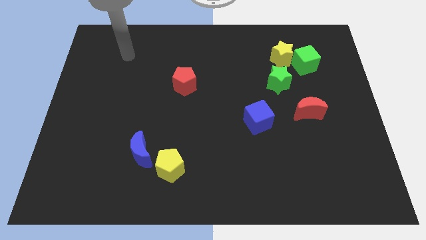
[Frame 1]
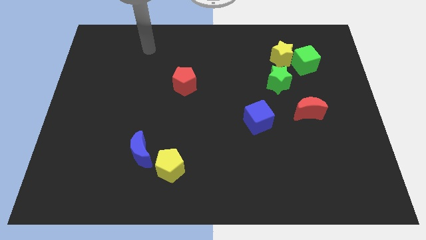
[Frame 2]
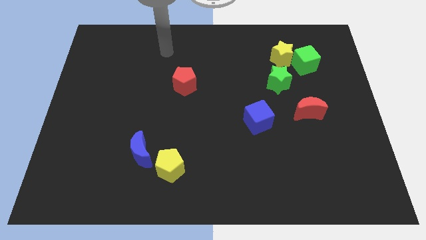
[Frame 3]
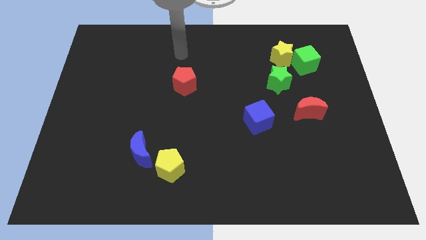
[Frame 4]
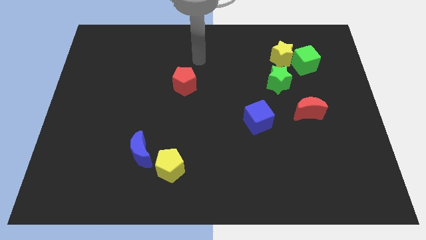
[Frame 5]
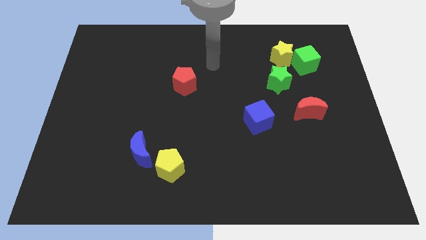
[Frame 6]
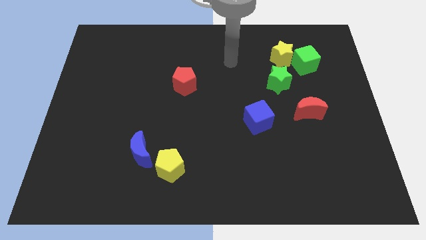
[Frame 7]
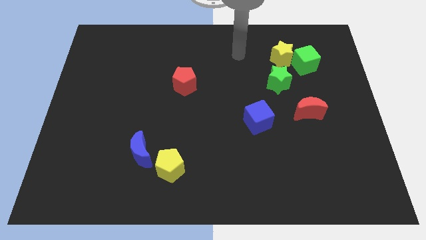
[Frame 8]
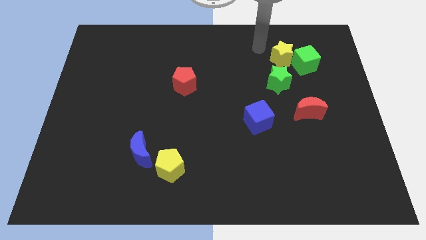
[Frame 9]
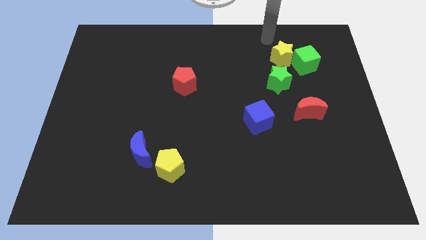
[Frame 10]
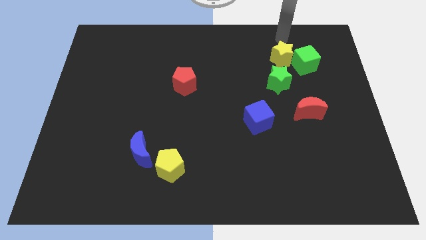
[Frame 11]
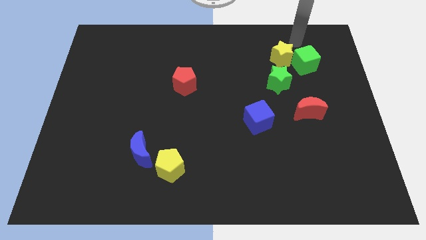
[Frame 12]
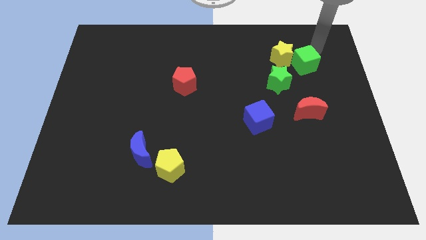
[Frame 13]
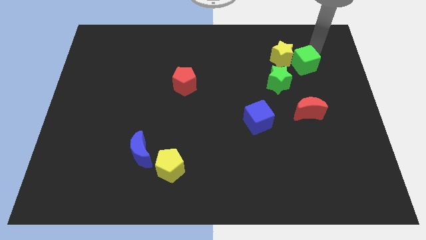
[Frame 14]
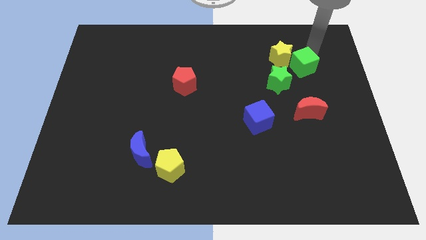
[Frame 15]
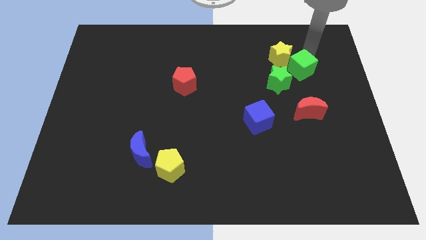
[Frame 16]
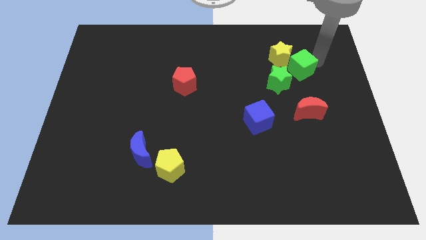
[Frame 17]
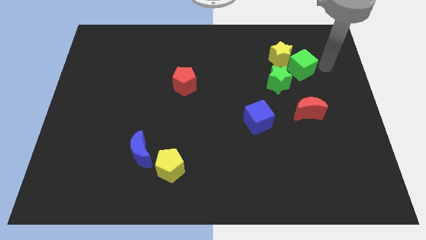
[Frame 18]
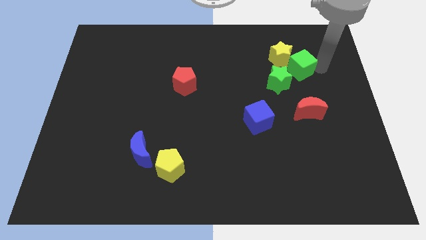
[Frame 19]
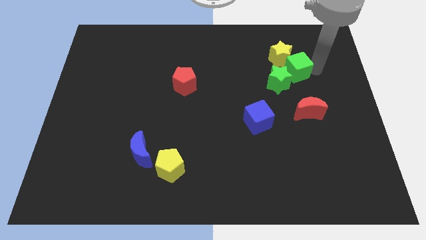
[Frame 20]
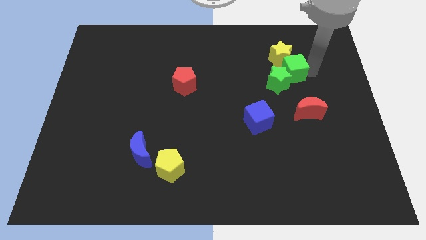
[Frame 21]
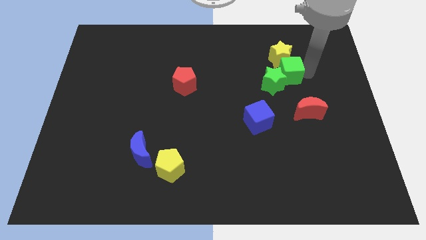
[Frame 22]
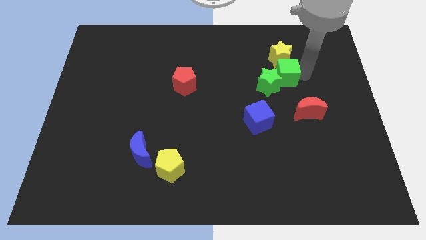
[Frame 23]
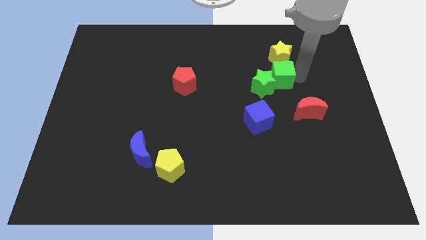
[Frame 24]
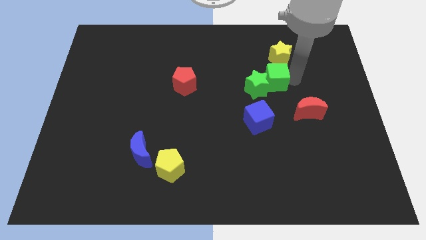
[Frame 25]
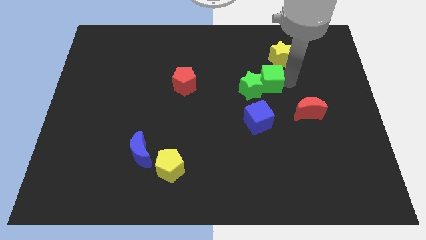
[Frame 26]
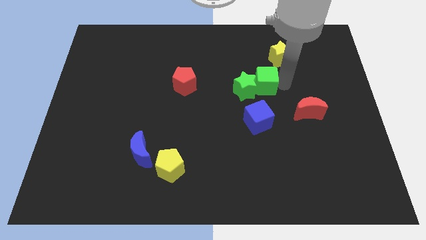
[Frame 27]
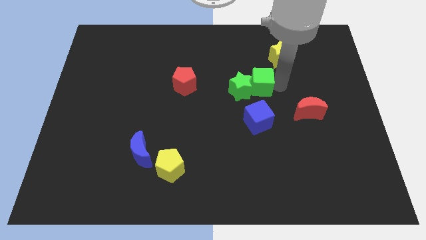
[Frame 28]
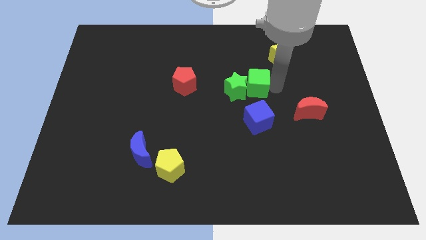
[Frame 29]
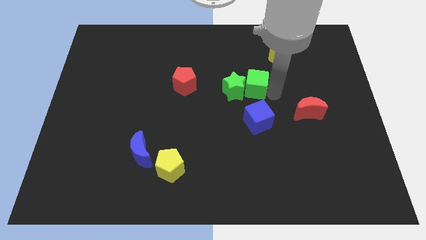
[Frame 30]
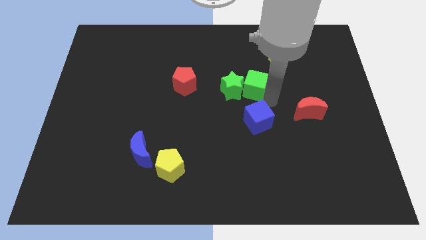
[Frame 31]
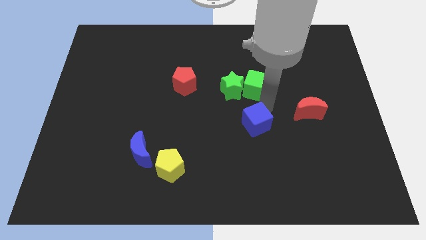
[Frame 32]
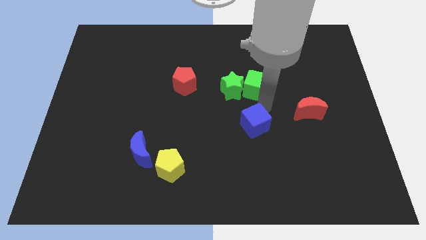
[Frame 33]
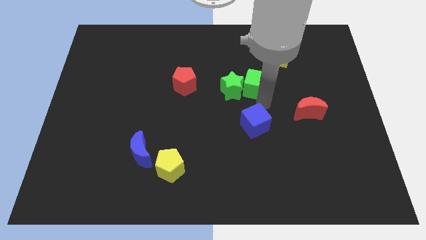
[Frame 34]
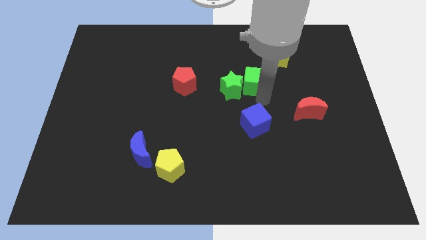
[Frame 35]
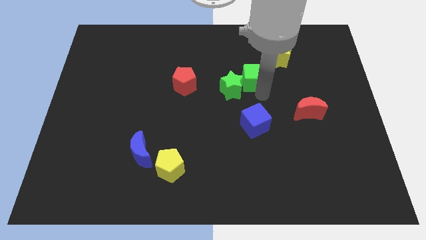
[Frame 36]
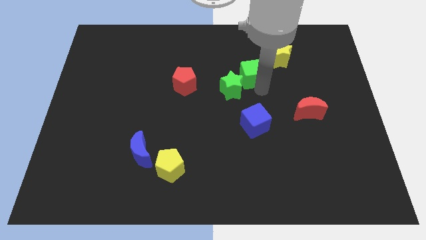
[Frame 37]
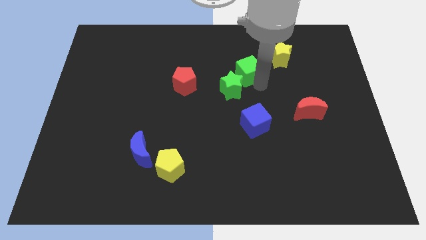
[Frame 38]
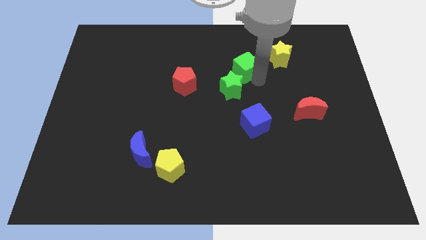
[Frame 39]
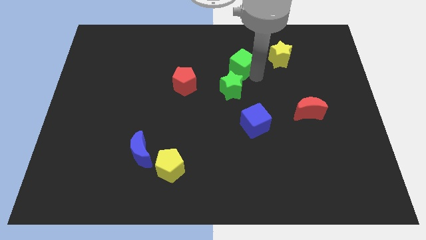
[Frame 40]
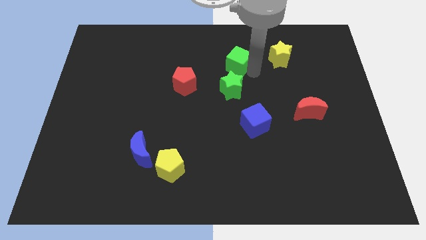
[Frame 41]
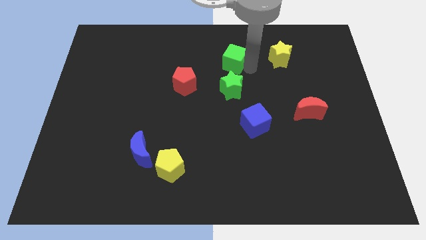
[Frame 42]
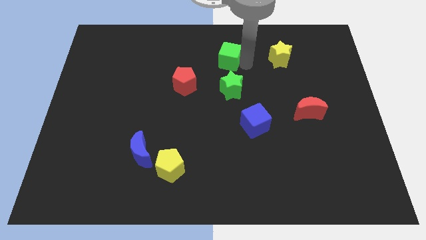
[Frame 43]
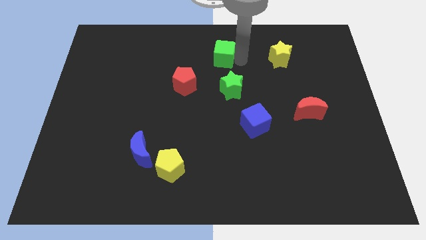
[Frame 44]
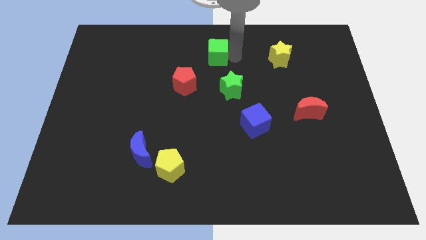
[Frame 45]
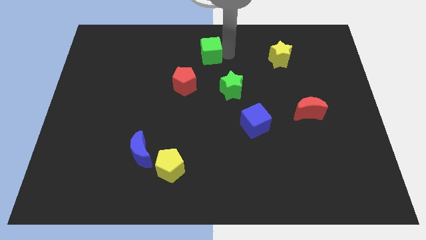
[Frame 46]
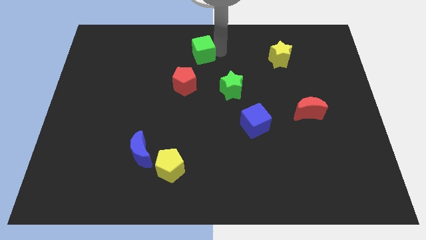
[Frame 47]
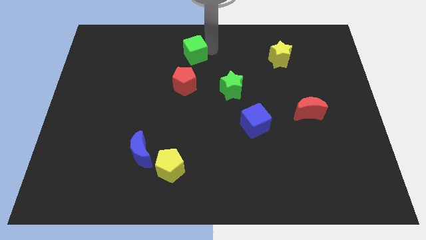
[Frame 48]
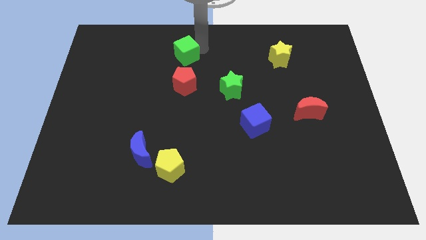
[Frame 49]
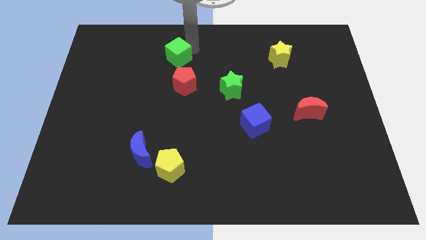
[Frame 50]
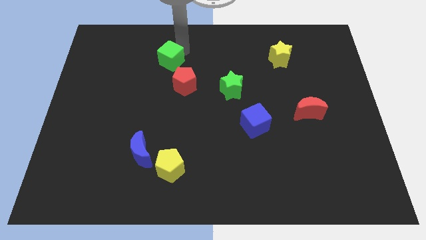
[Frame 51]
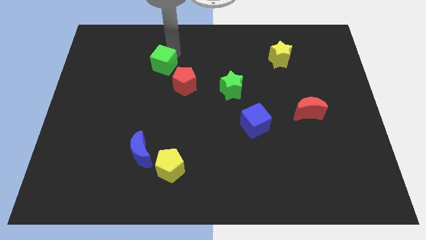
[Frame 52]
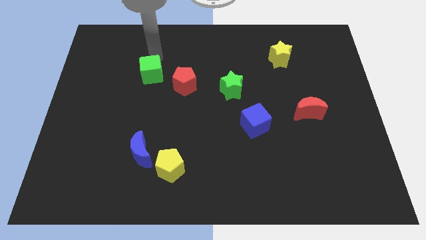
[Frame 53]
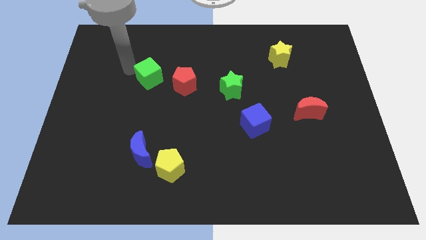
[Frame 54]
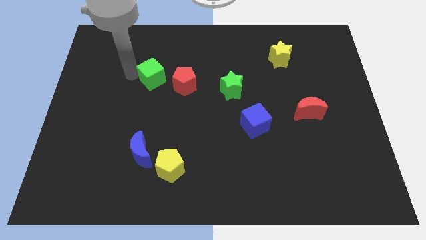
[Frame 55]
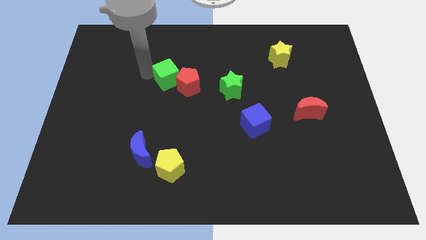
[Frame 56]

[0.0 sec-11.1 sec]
push the green cube next to the red pentagon

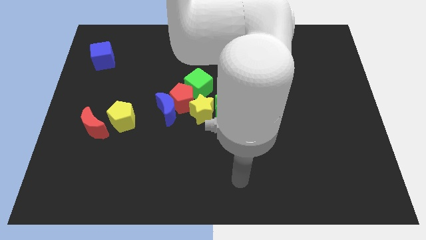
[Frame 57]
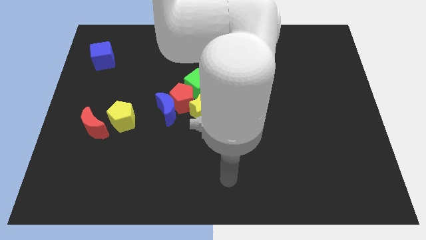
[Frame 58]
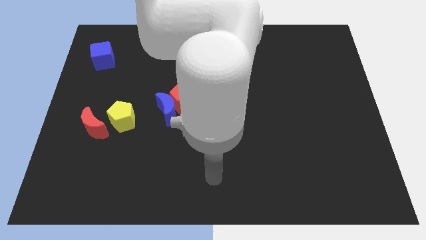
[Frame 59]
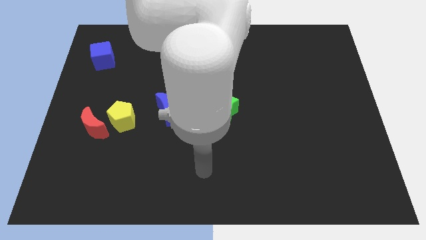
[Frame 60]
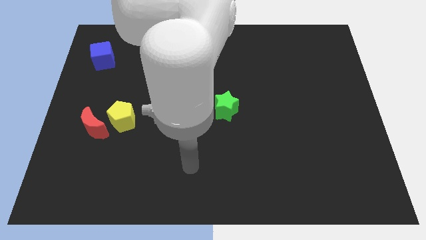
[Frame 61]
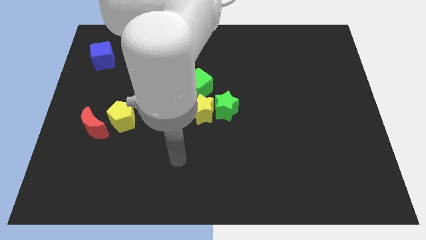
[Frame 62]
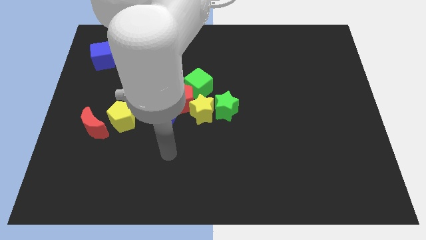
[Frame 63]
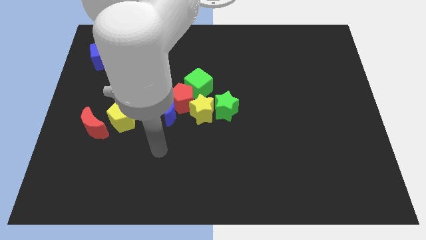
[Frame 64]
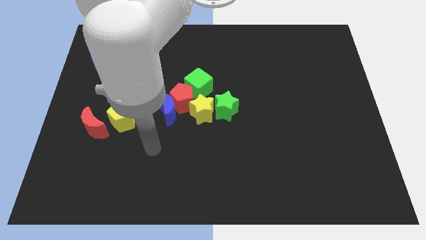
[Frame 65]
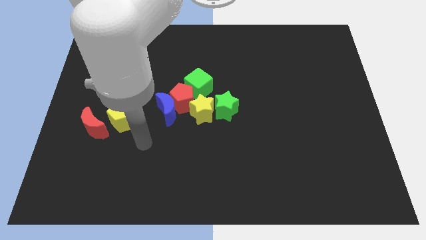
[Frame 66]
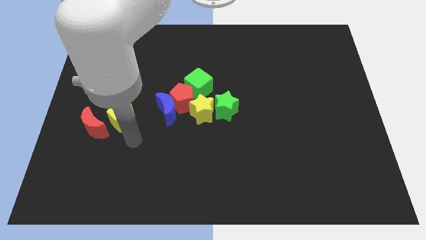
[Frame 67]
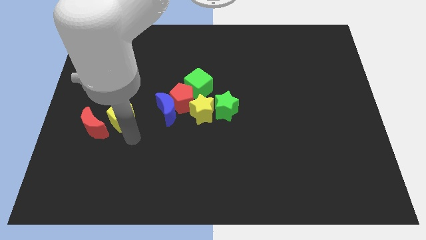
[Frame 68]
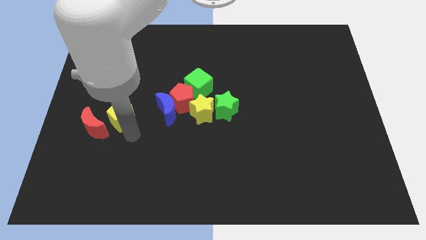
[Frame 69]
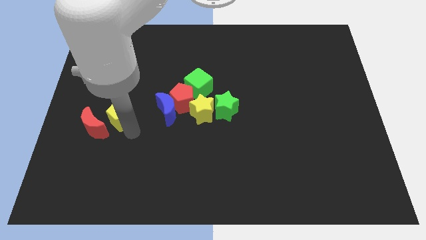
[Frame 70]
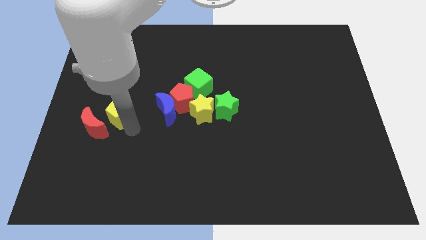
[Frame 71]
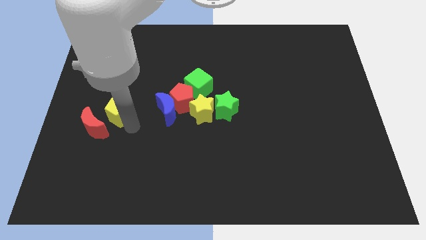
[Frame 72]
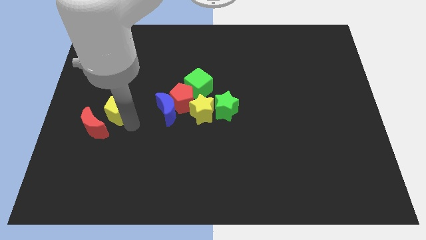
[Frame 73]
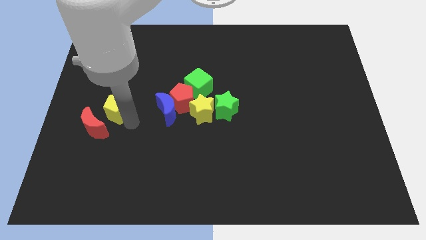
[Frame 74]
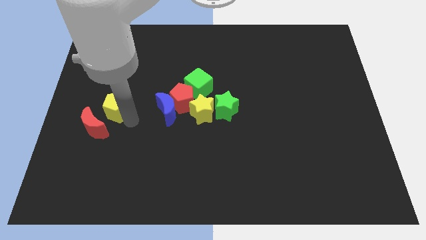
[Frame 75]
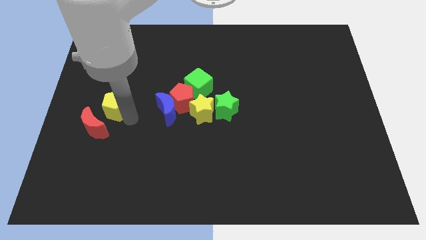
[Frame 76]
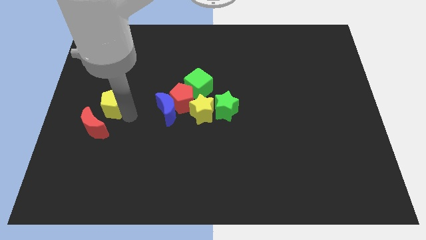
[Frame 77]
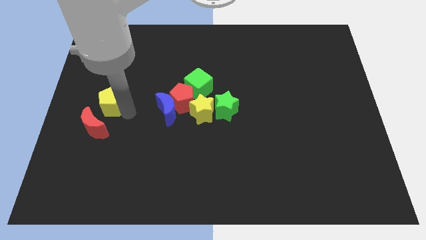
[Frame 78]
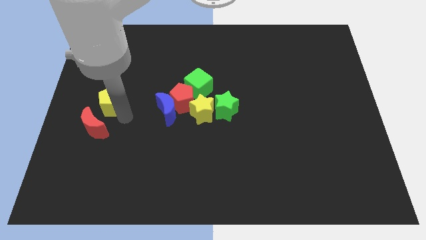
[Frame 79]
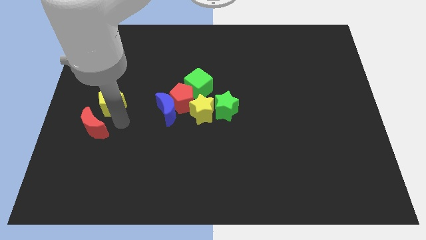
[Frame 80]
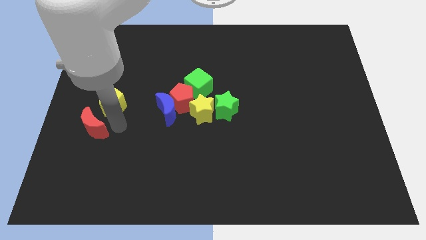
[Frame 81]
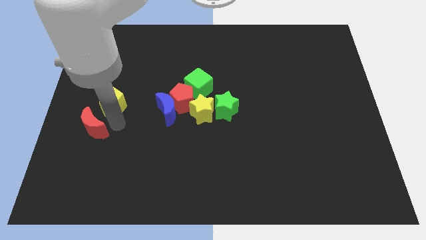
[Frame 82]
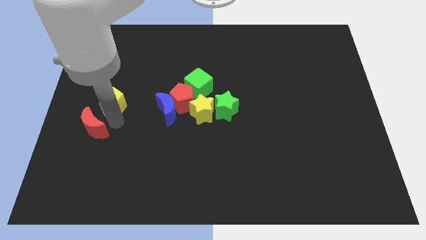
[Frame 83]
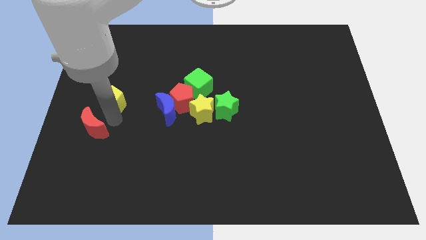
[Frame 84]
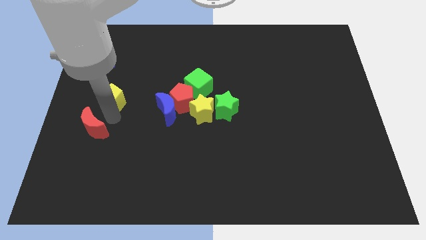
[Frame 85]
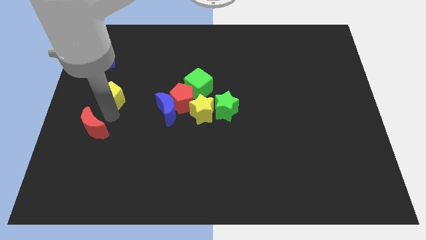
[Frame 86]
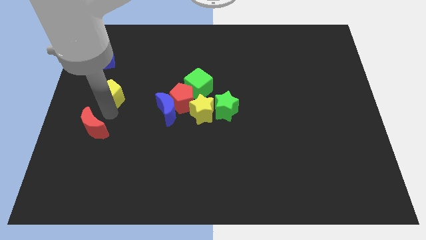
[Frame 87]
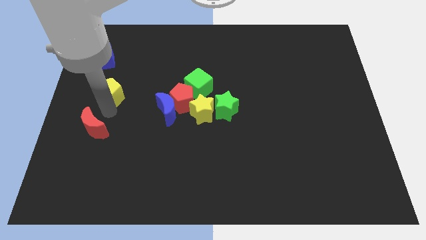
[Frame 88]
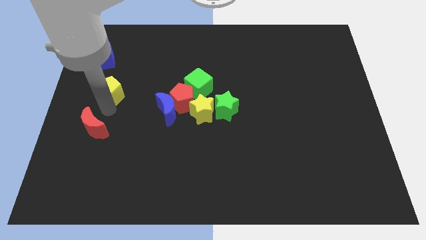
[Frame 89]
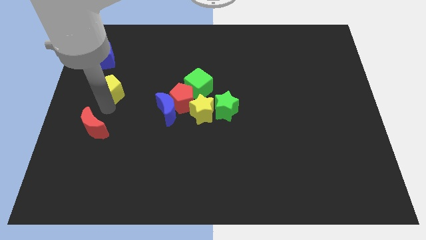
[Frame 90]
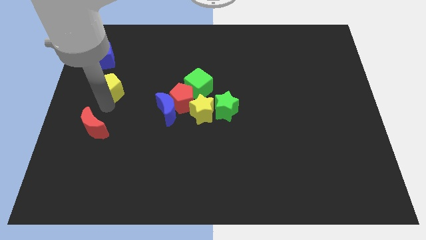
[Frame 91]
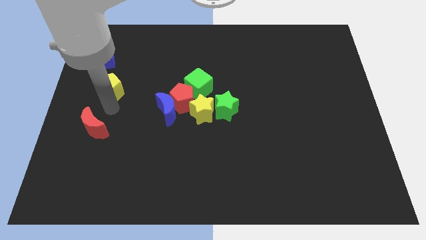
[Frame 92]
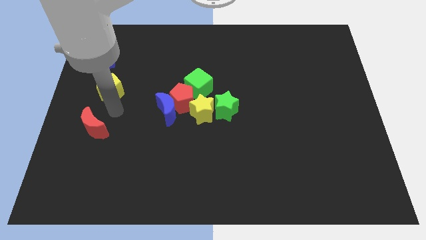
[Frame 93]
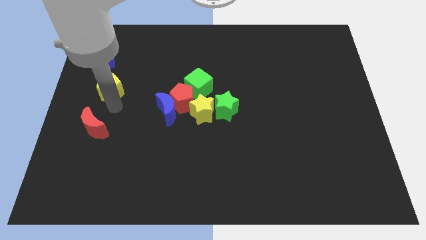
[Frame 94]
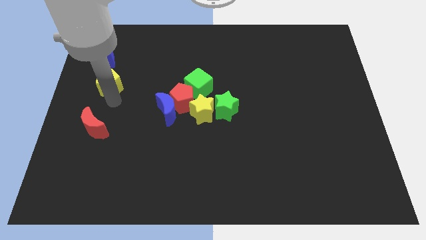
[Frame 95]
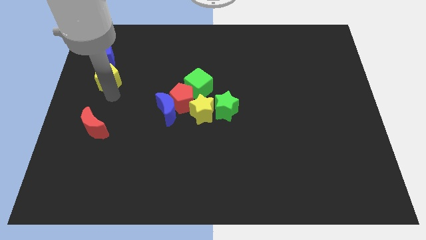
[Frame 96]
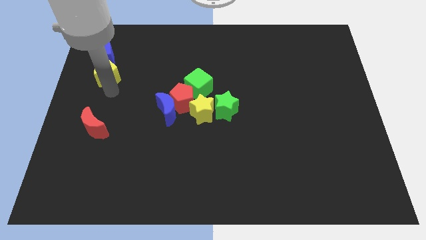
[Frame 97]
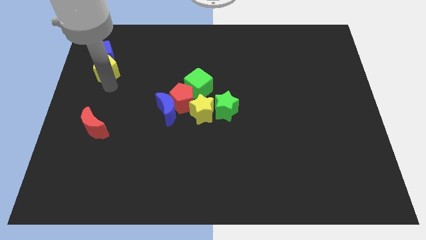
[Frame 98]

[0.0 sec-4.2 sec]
move the yellow pentagon to the blue cube
